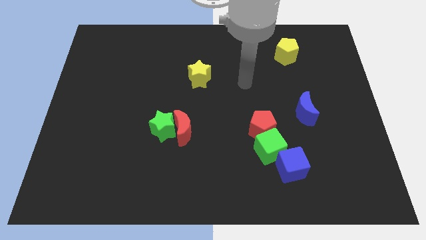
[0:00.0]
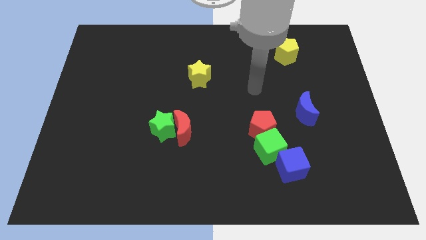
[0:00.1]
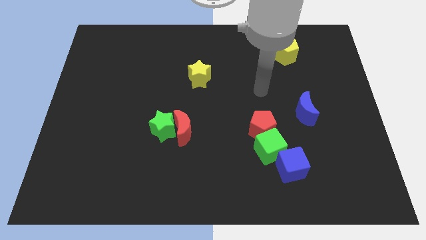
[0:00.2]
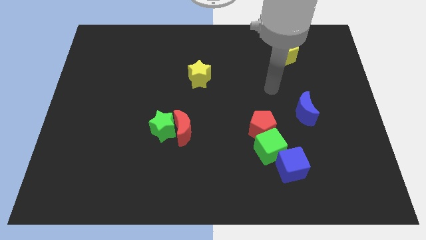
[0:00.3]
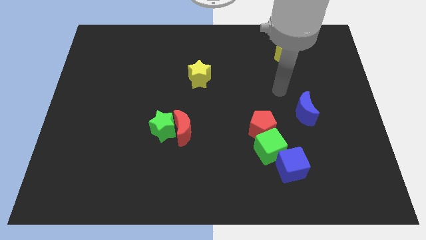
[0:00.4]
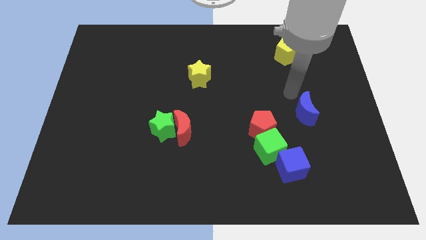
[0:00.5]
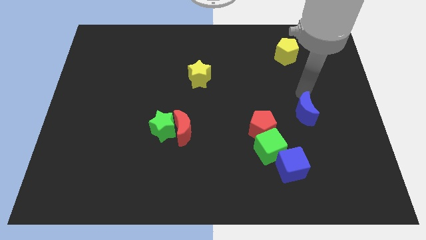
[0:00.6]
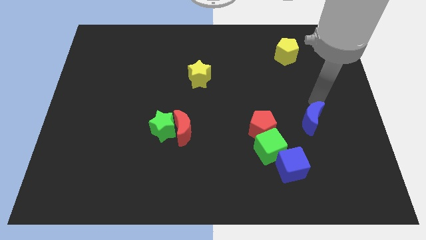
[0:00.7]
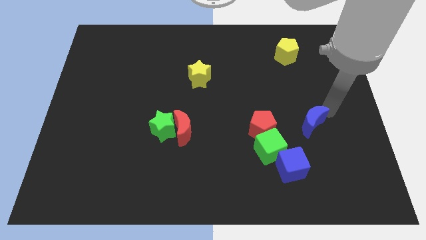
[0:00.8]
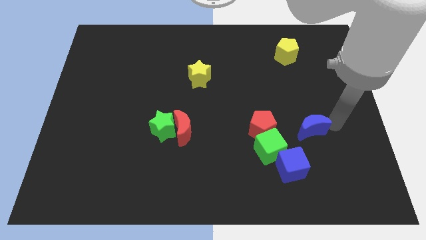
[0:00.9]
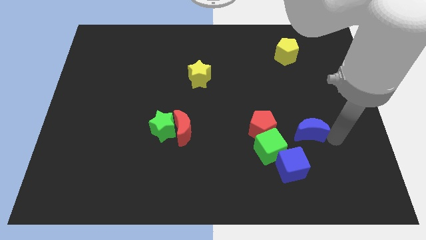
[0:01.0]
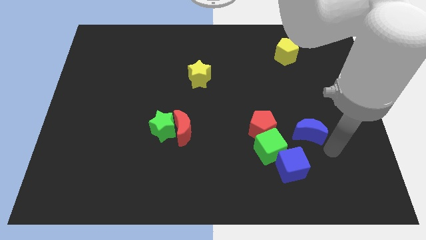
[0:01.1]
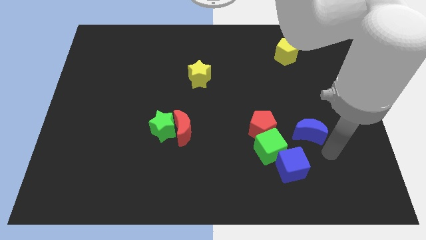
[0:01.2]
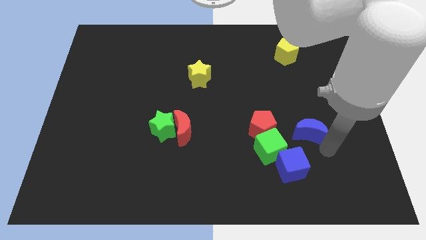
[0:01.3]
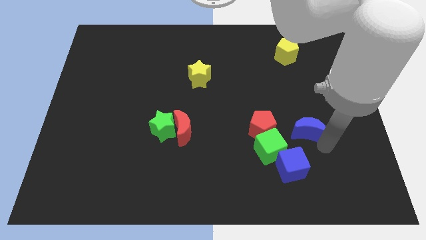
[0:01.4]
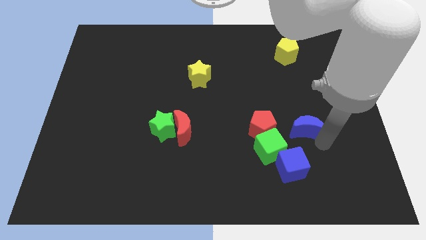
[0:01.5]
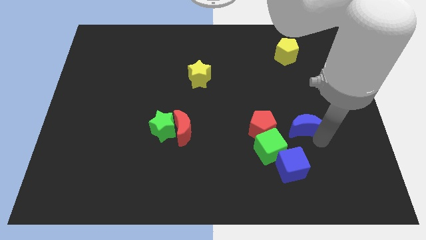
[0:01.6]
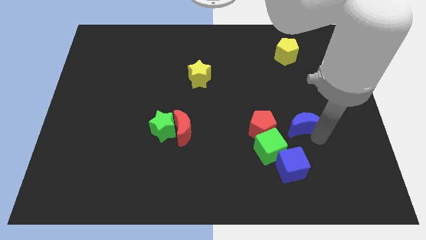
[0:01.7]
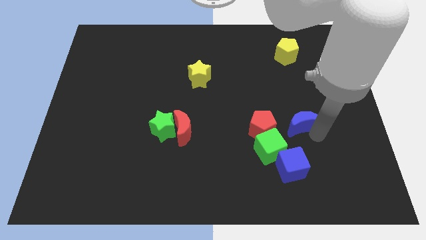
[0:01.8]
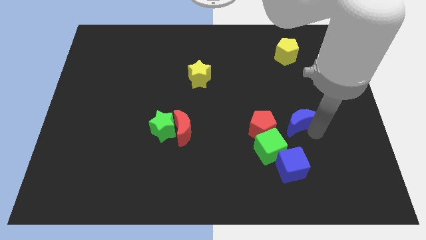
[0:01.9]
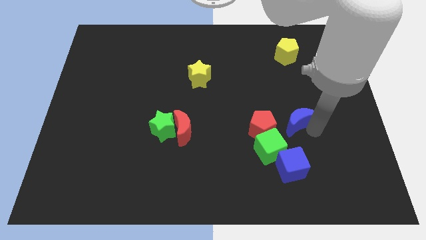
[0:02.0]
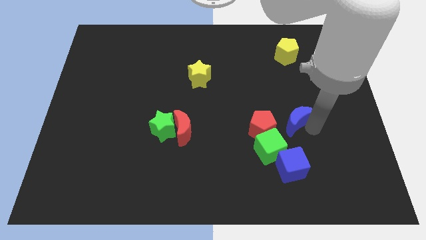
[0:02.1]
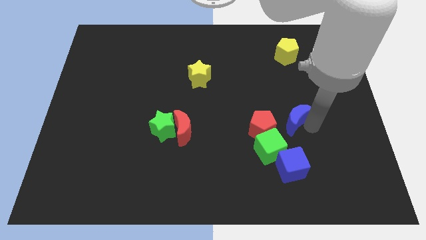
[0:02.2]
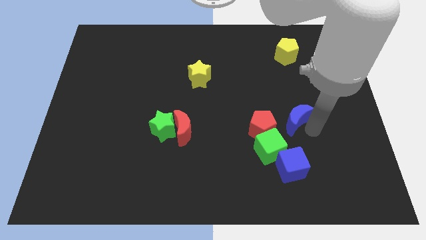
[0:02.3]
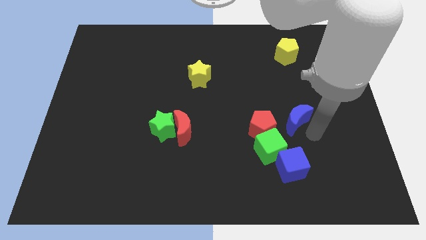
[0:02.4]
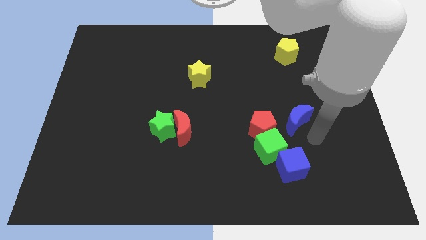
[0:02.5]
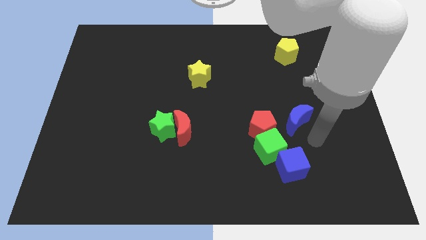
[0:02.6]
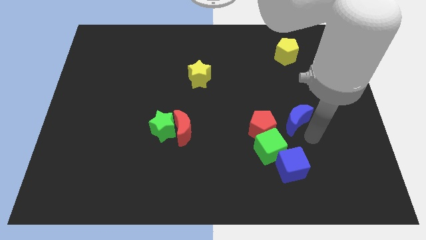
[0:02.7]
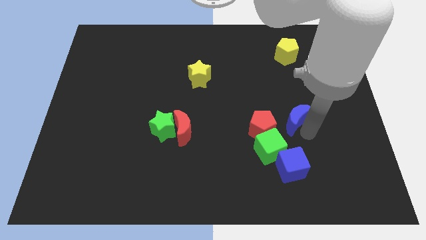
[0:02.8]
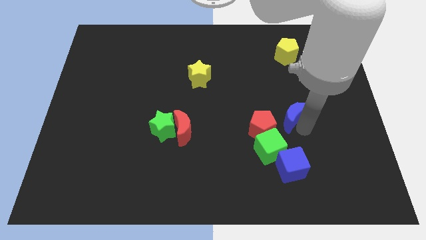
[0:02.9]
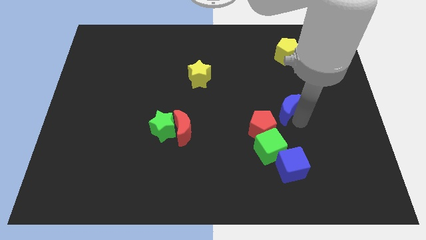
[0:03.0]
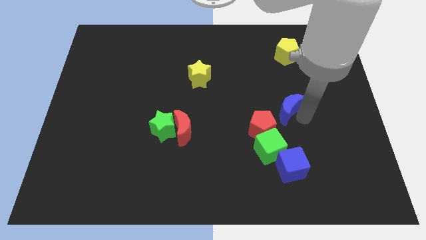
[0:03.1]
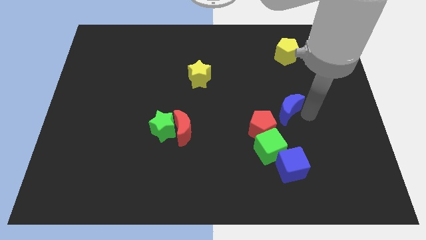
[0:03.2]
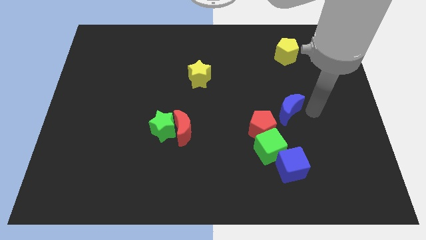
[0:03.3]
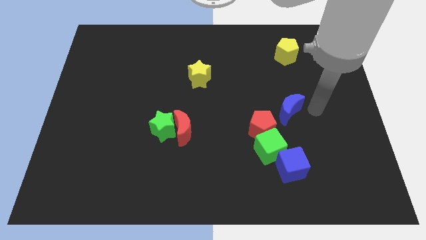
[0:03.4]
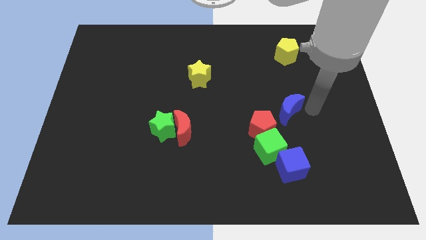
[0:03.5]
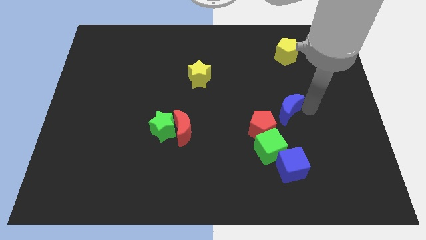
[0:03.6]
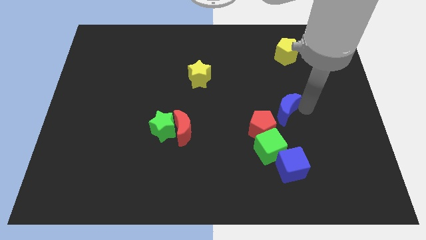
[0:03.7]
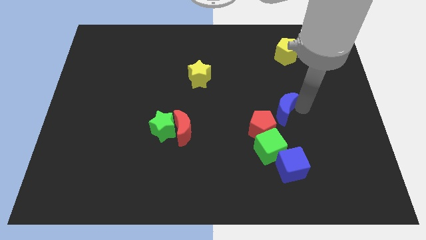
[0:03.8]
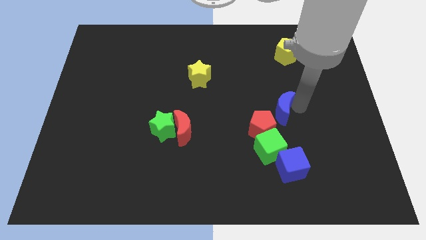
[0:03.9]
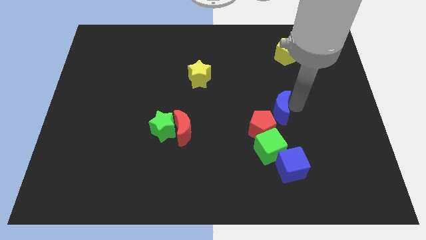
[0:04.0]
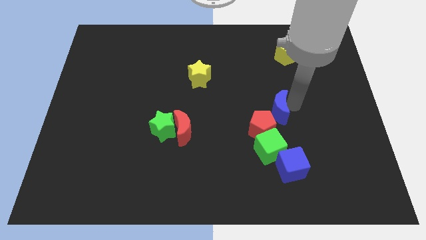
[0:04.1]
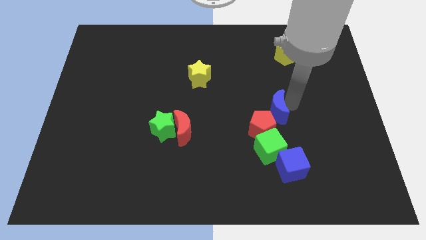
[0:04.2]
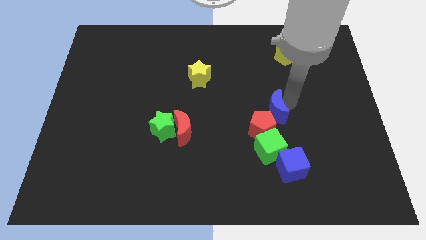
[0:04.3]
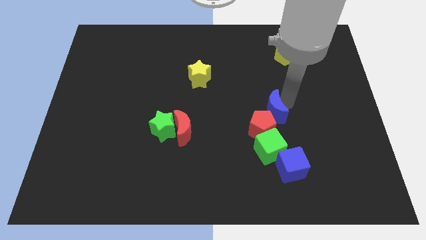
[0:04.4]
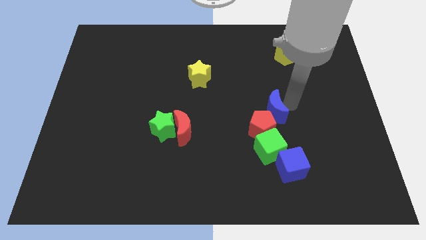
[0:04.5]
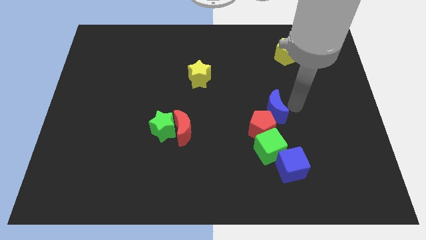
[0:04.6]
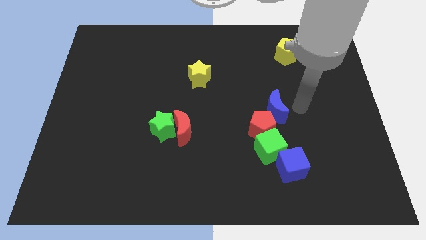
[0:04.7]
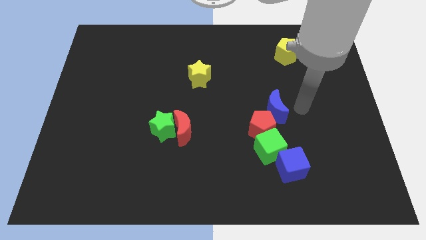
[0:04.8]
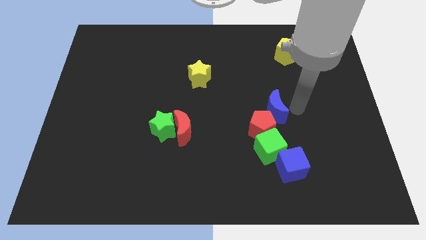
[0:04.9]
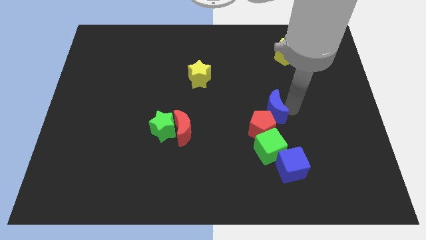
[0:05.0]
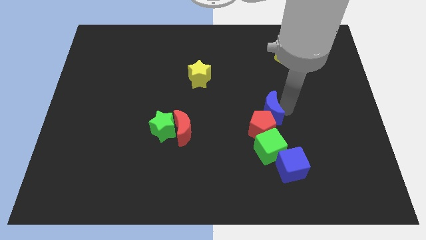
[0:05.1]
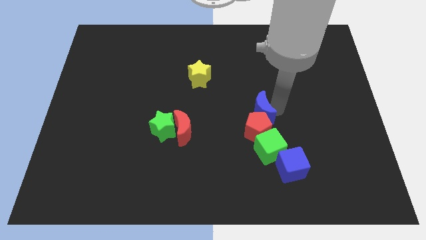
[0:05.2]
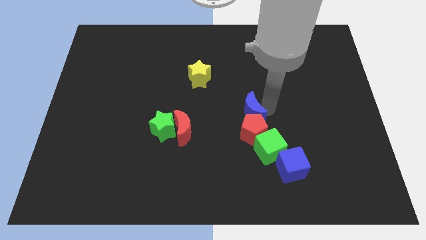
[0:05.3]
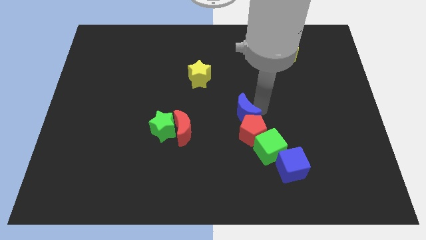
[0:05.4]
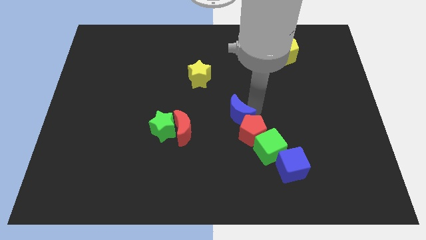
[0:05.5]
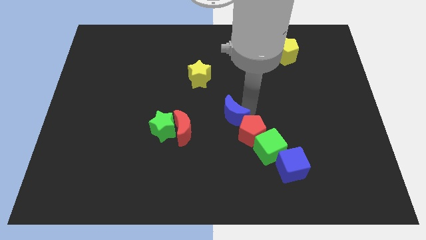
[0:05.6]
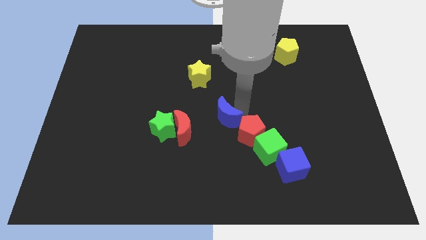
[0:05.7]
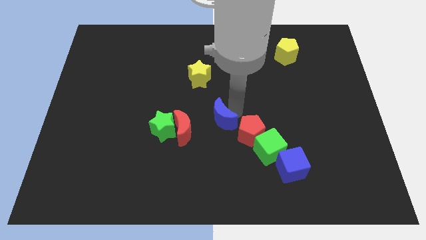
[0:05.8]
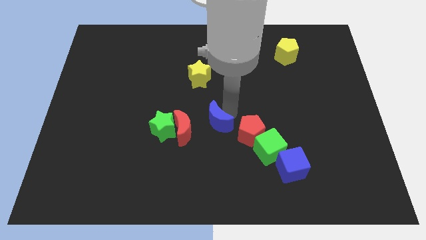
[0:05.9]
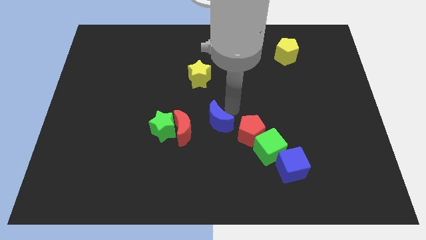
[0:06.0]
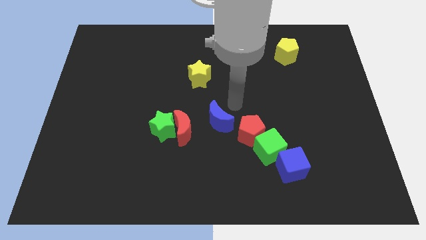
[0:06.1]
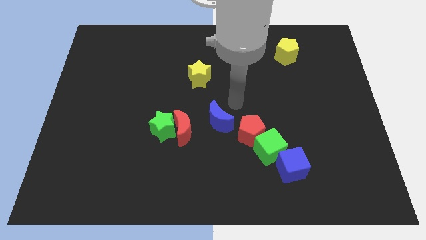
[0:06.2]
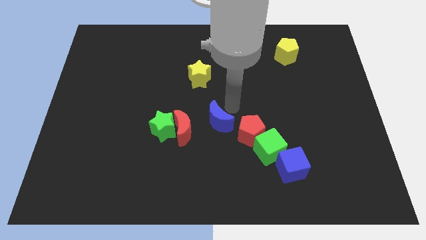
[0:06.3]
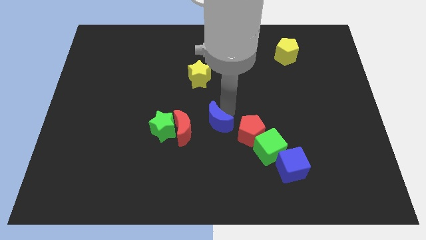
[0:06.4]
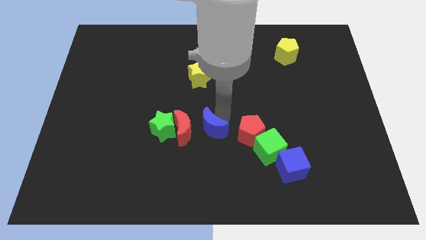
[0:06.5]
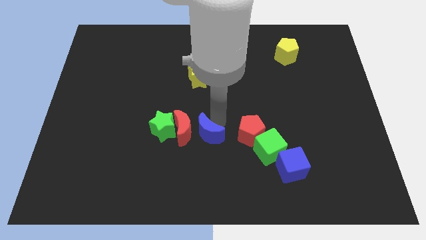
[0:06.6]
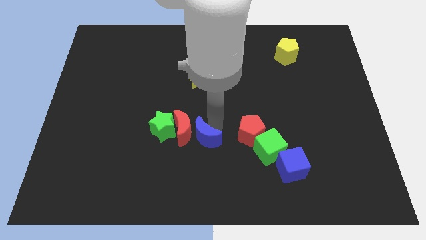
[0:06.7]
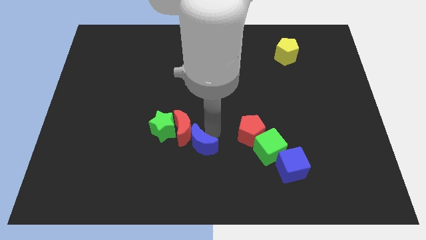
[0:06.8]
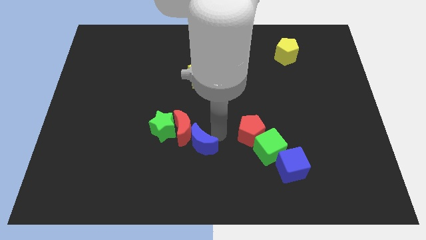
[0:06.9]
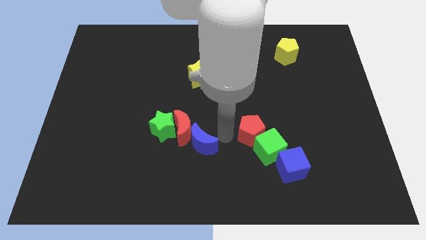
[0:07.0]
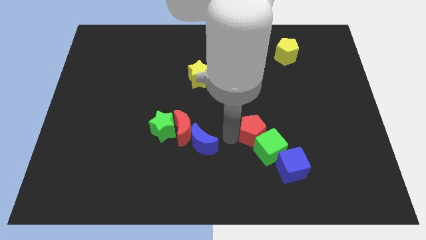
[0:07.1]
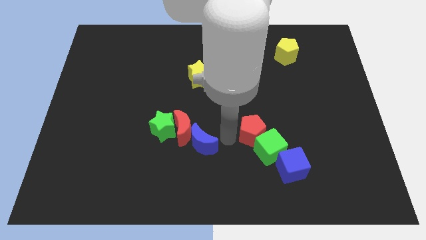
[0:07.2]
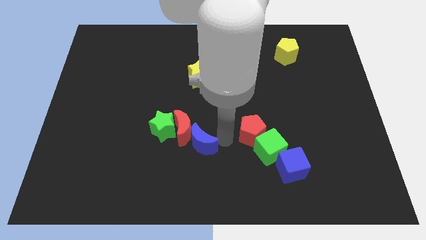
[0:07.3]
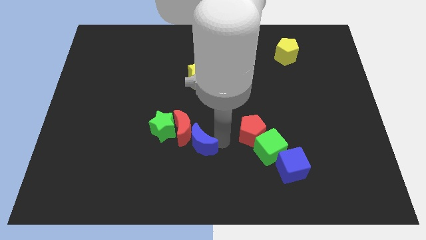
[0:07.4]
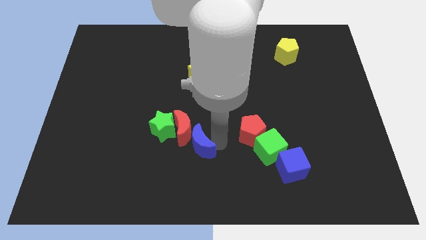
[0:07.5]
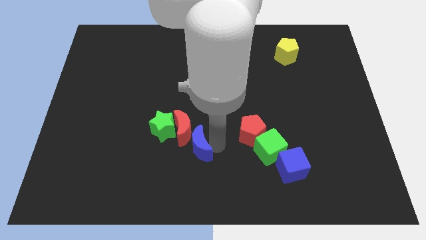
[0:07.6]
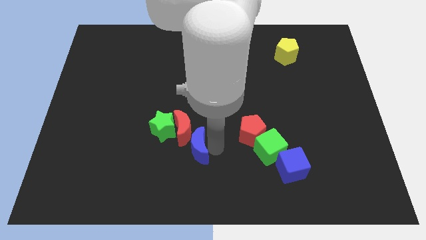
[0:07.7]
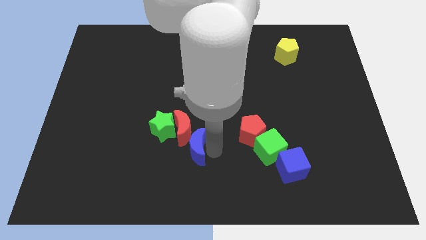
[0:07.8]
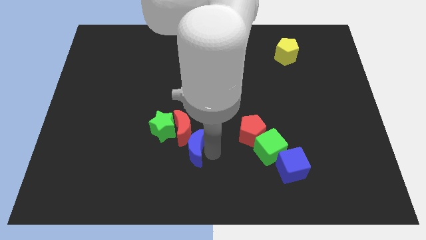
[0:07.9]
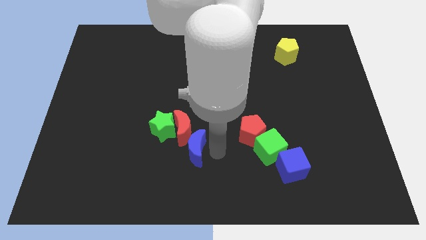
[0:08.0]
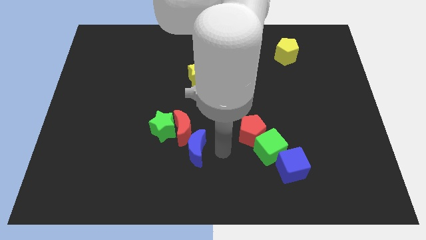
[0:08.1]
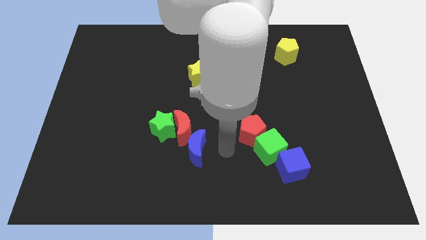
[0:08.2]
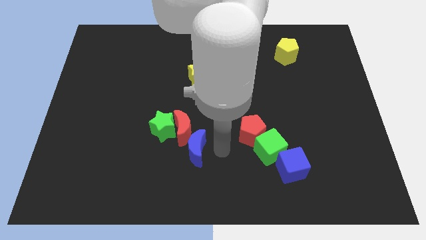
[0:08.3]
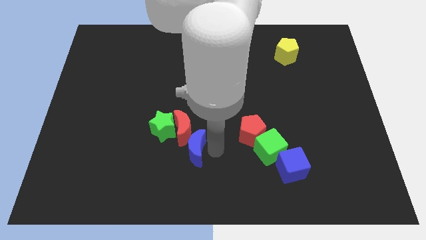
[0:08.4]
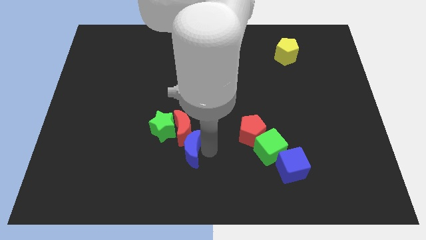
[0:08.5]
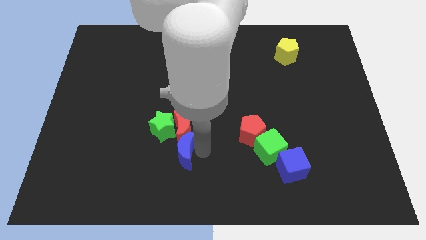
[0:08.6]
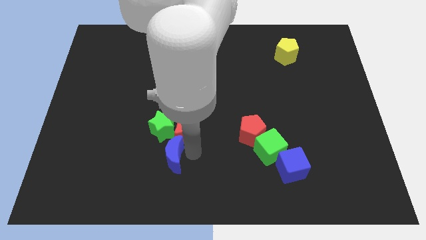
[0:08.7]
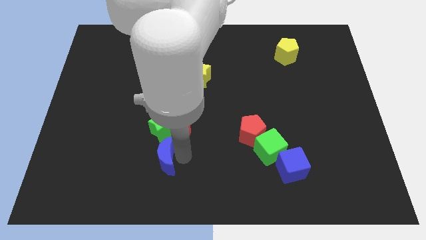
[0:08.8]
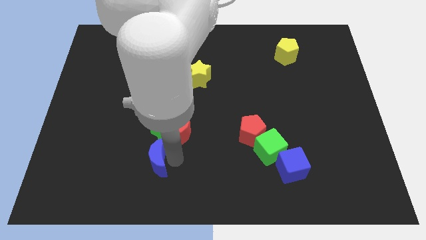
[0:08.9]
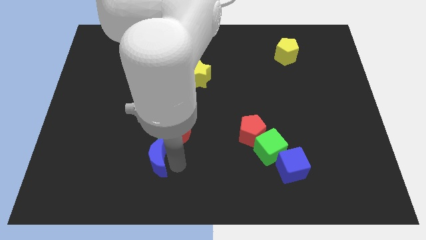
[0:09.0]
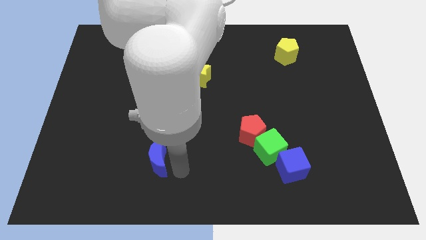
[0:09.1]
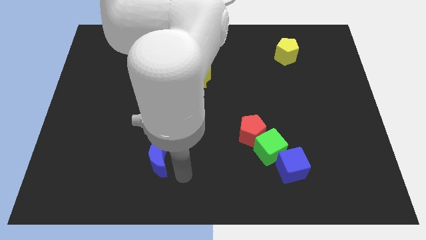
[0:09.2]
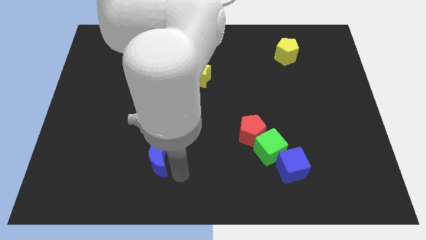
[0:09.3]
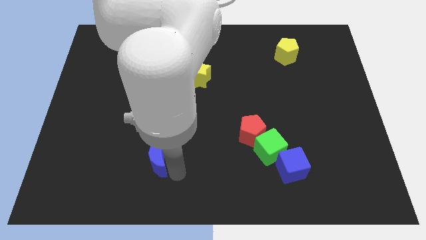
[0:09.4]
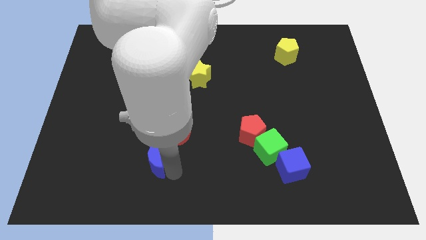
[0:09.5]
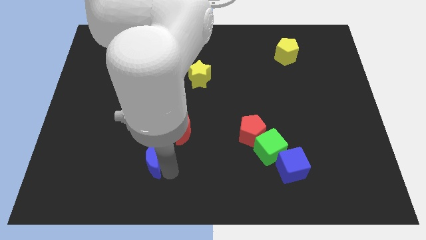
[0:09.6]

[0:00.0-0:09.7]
move the blue moon to the bottom left side of the green star
